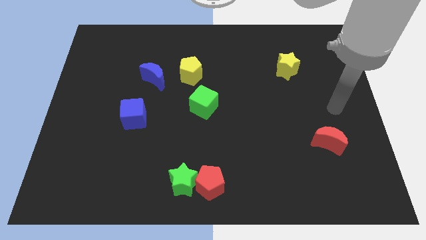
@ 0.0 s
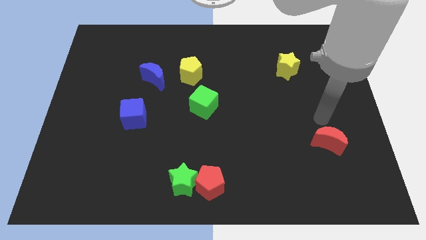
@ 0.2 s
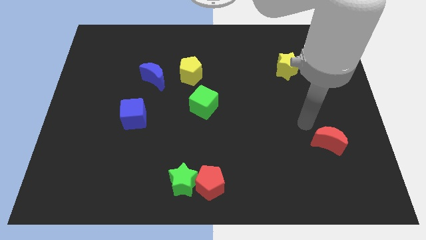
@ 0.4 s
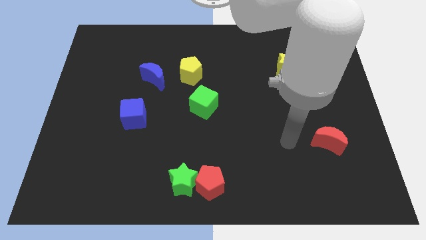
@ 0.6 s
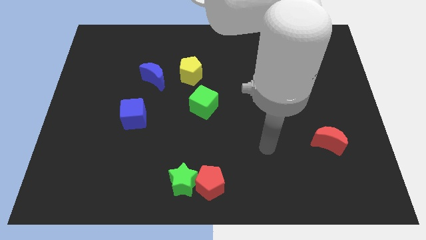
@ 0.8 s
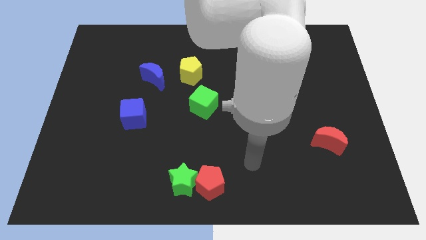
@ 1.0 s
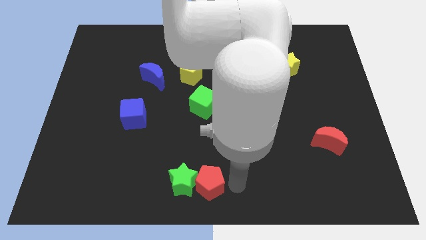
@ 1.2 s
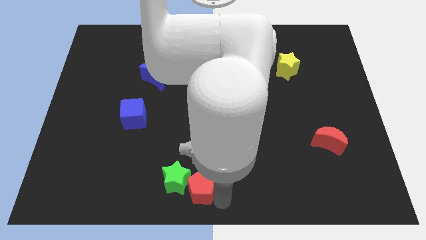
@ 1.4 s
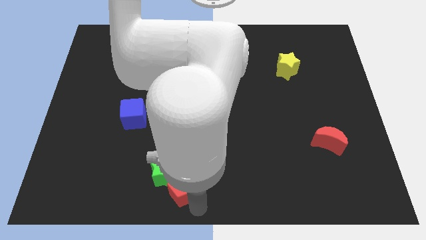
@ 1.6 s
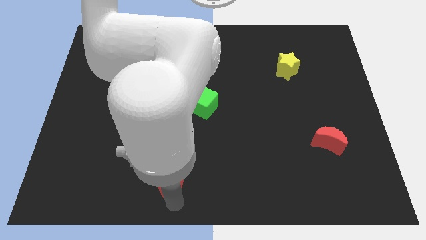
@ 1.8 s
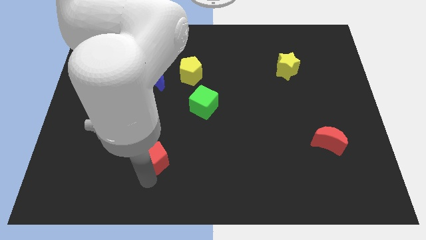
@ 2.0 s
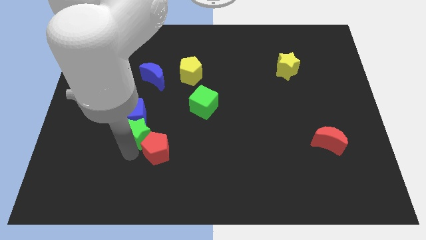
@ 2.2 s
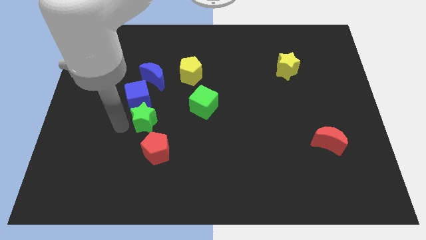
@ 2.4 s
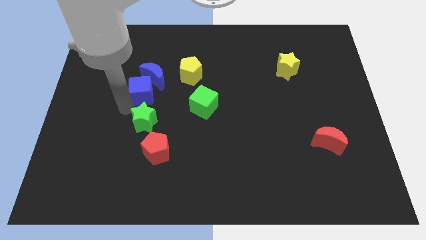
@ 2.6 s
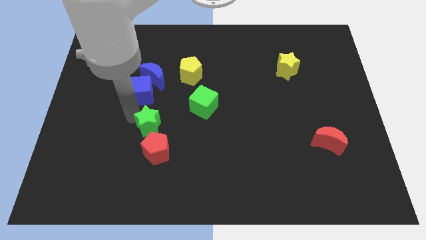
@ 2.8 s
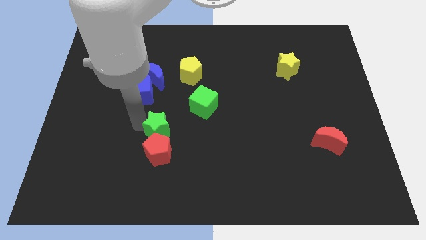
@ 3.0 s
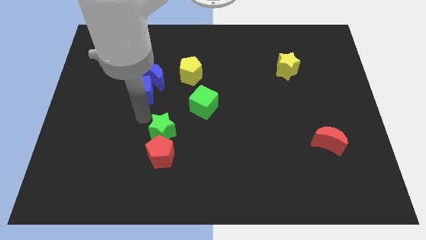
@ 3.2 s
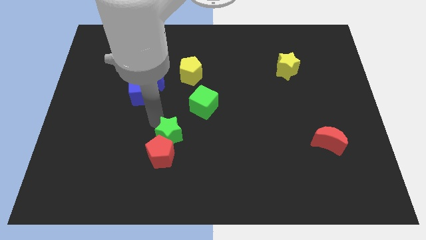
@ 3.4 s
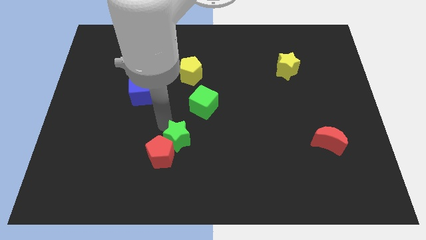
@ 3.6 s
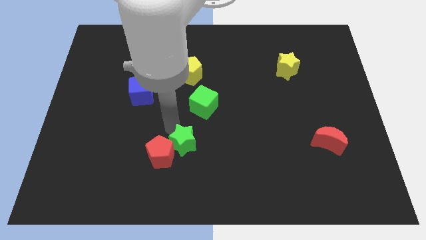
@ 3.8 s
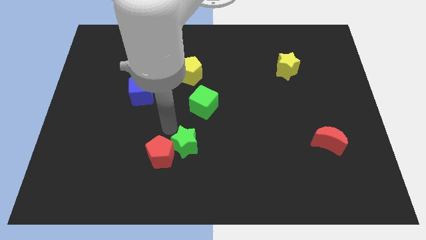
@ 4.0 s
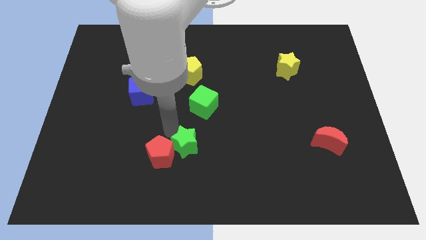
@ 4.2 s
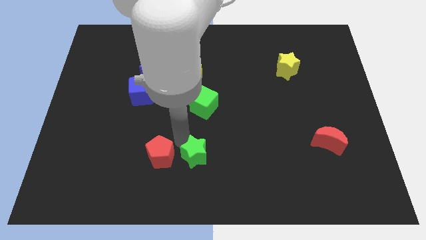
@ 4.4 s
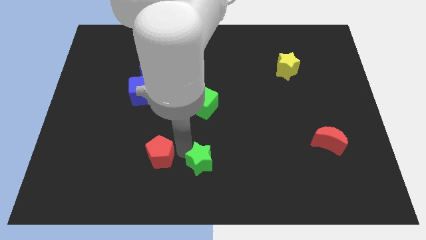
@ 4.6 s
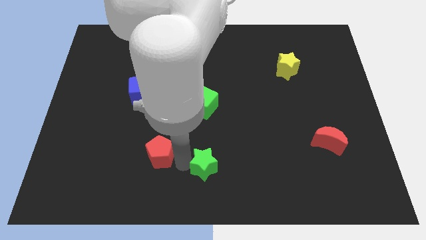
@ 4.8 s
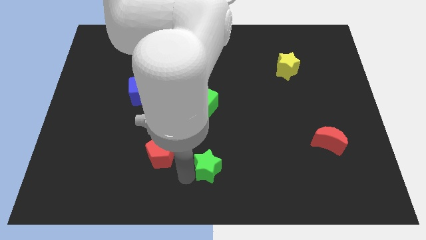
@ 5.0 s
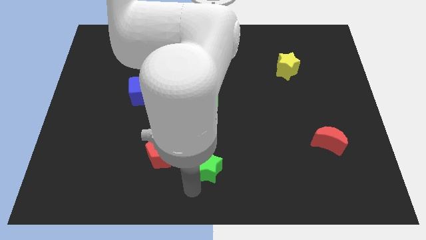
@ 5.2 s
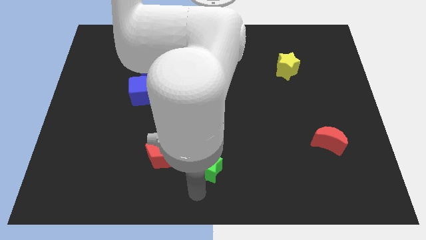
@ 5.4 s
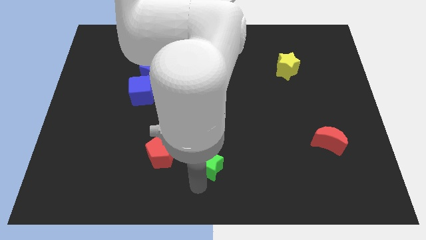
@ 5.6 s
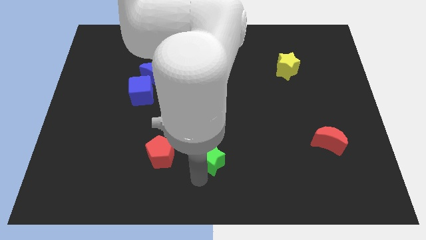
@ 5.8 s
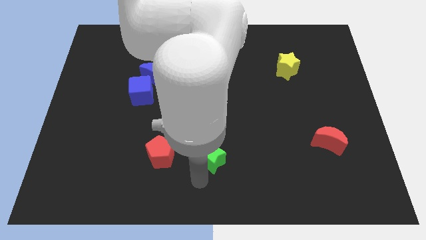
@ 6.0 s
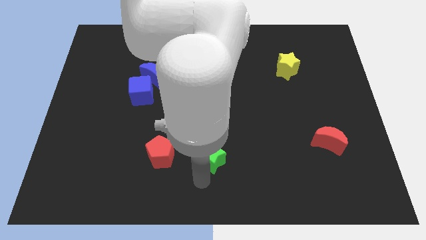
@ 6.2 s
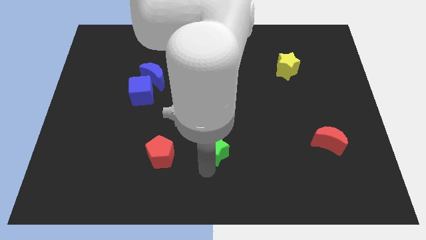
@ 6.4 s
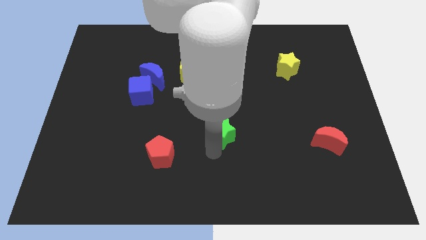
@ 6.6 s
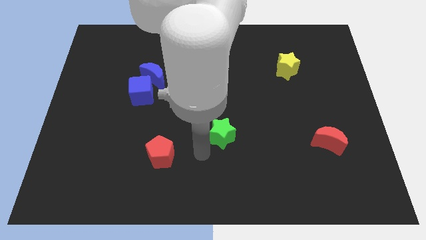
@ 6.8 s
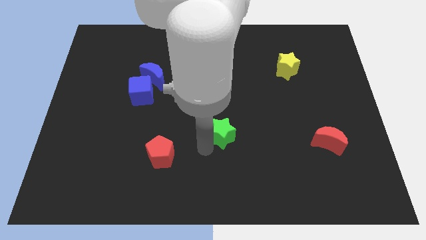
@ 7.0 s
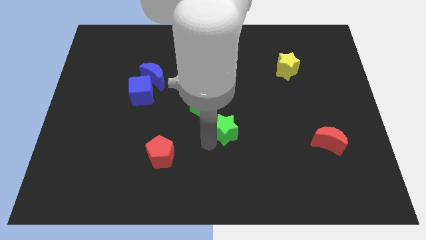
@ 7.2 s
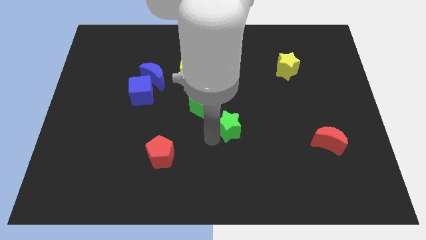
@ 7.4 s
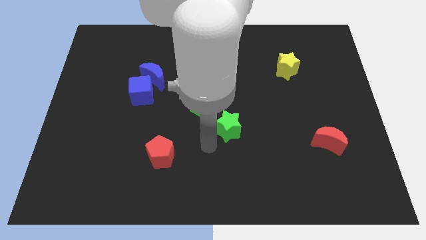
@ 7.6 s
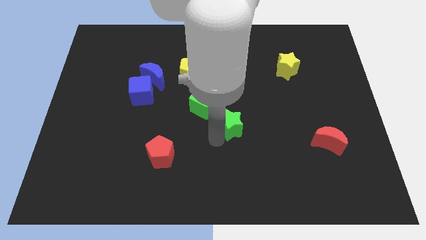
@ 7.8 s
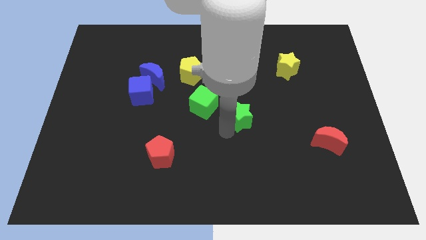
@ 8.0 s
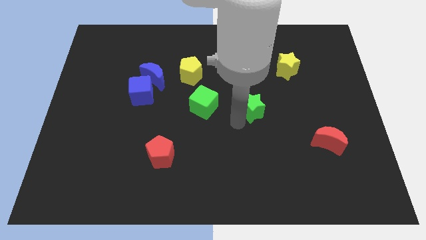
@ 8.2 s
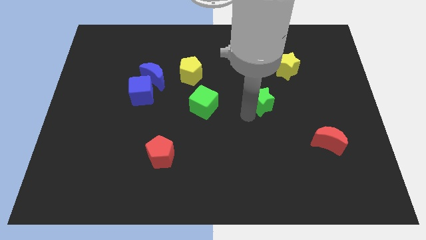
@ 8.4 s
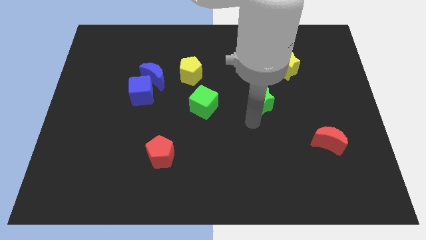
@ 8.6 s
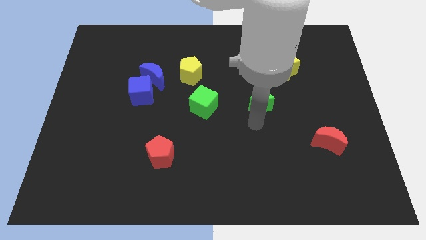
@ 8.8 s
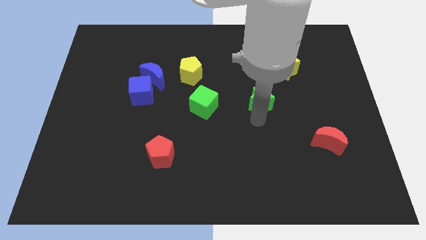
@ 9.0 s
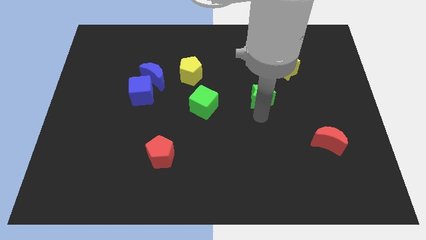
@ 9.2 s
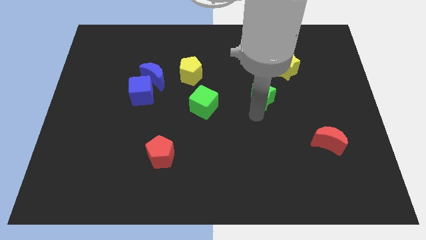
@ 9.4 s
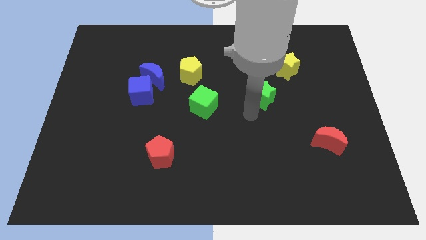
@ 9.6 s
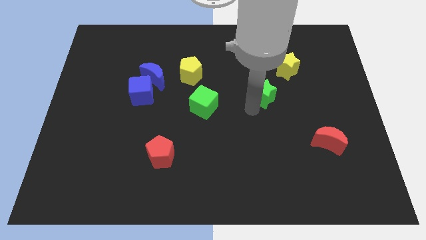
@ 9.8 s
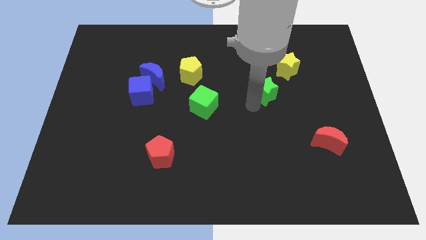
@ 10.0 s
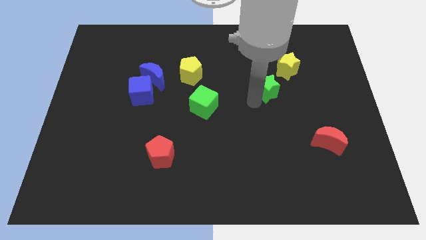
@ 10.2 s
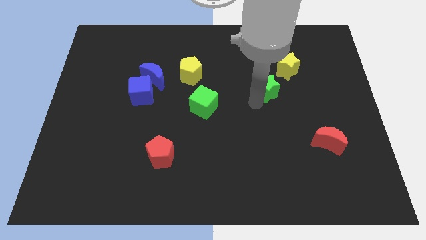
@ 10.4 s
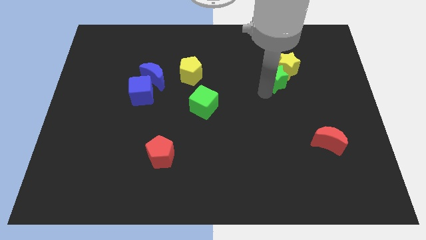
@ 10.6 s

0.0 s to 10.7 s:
push the green star towards the yellow star

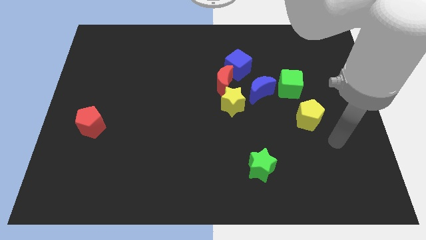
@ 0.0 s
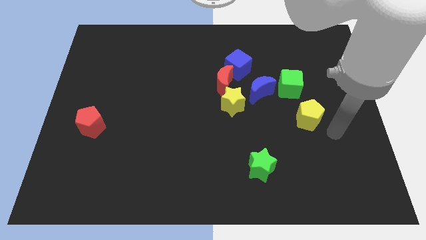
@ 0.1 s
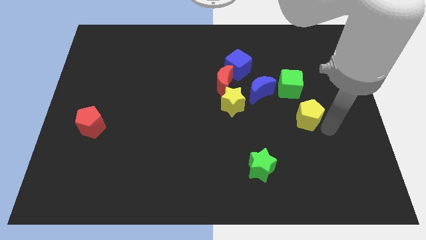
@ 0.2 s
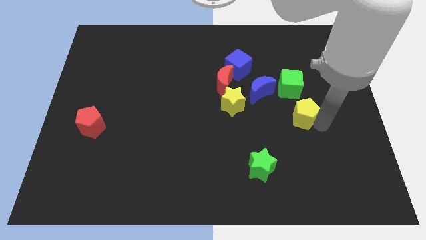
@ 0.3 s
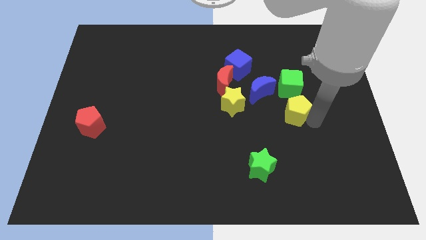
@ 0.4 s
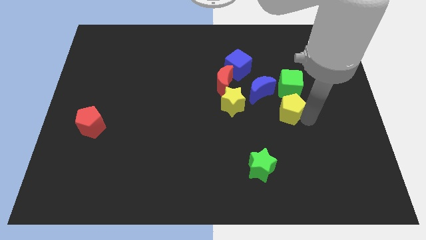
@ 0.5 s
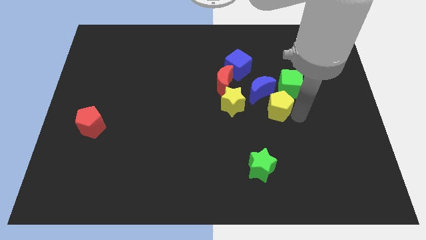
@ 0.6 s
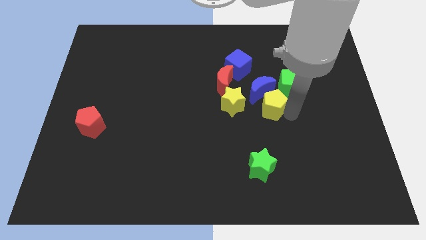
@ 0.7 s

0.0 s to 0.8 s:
put the yellow pentagon next to the blue moon
